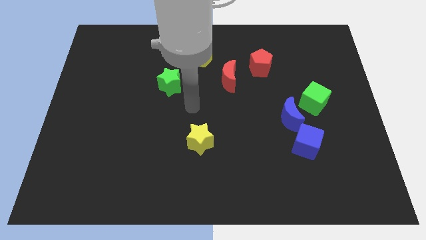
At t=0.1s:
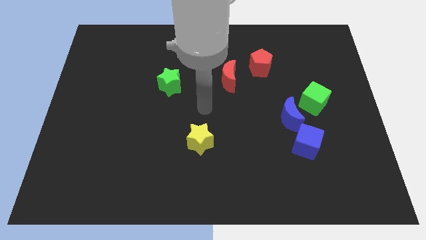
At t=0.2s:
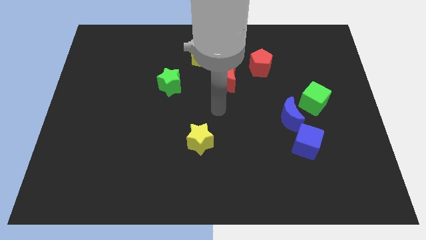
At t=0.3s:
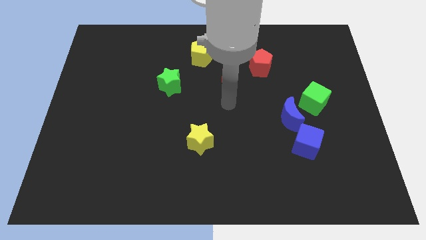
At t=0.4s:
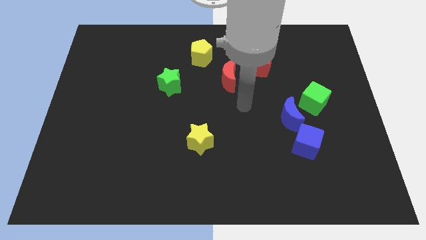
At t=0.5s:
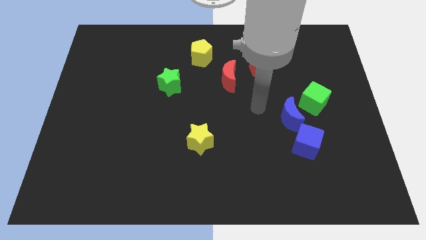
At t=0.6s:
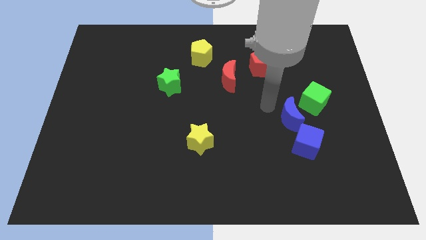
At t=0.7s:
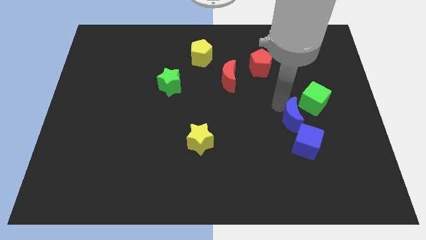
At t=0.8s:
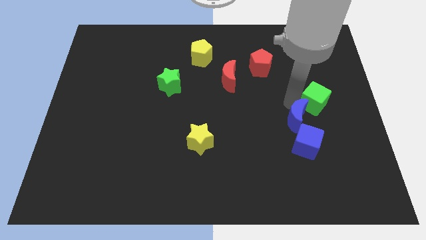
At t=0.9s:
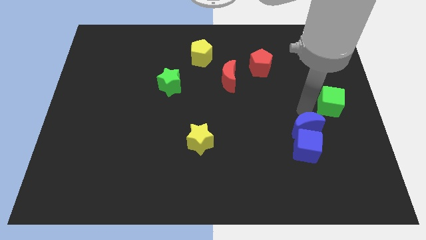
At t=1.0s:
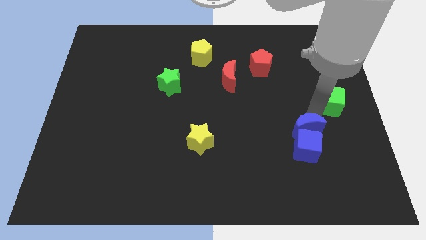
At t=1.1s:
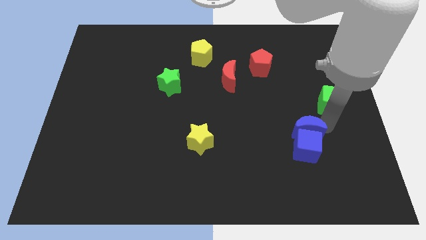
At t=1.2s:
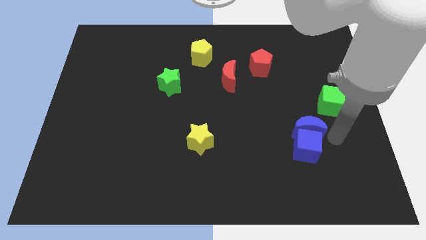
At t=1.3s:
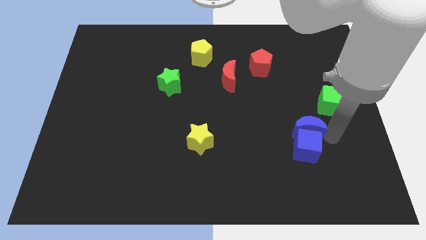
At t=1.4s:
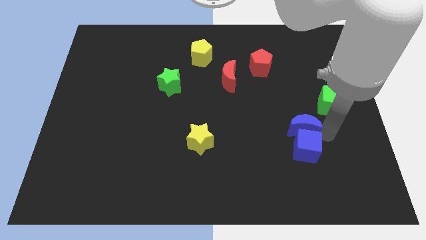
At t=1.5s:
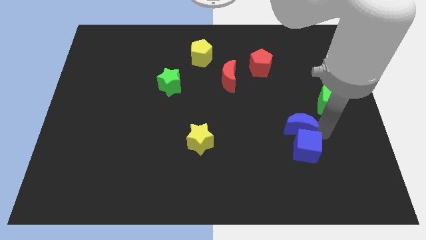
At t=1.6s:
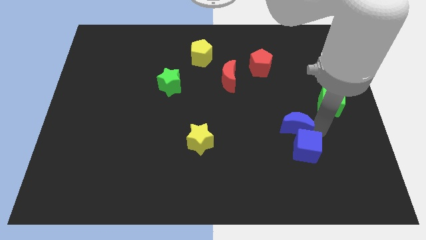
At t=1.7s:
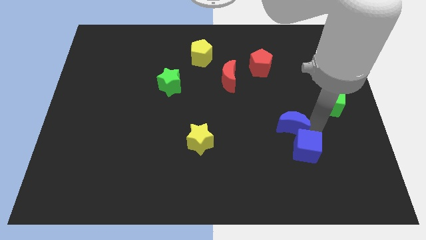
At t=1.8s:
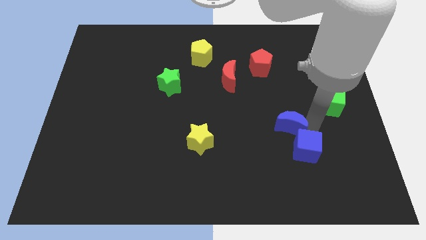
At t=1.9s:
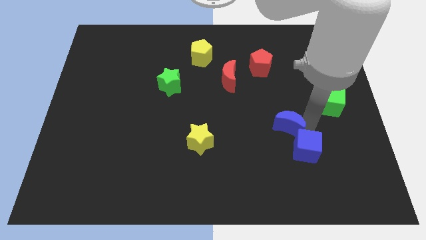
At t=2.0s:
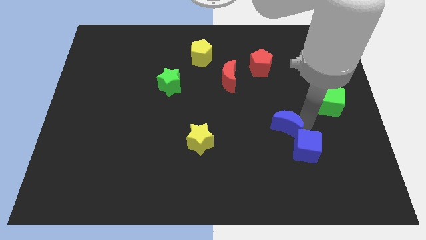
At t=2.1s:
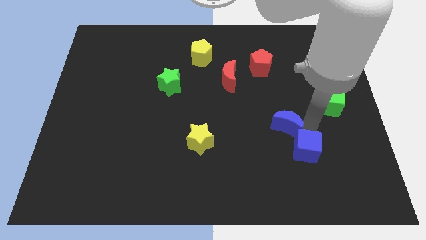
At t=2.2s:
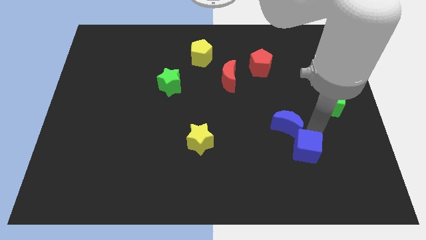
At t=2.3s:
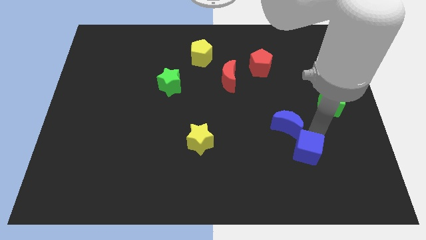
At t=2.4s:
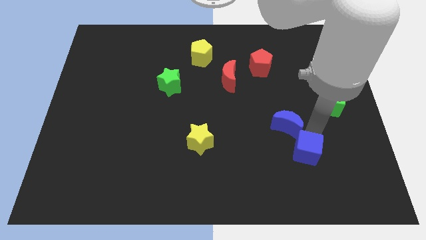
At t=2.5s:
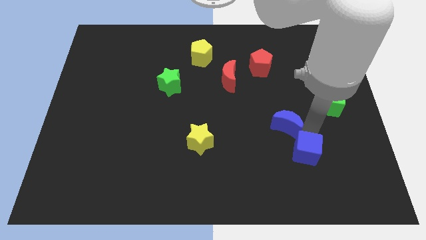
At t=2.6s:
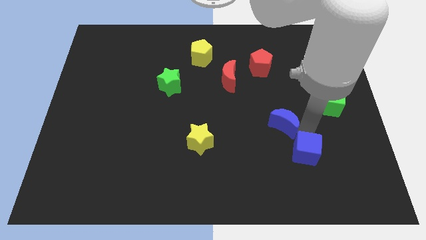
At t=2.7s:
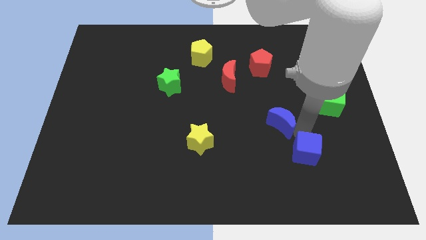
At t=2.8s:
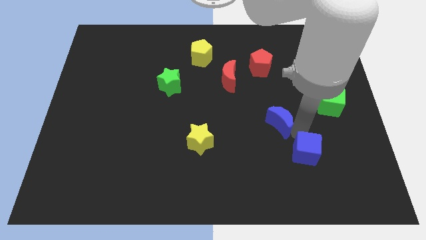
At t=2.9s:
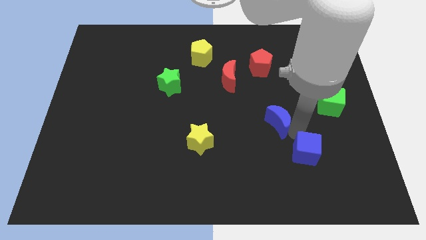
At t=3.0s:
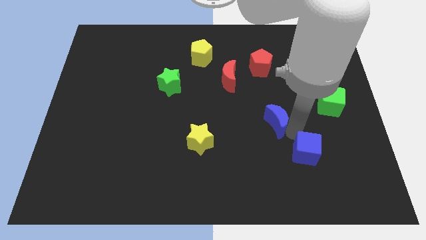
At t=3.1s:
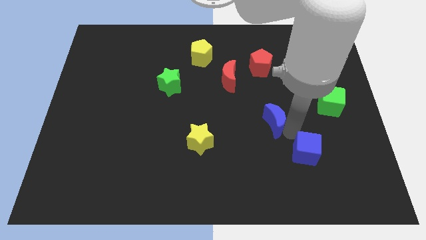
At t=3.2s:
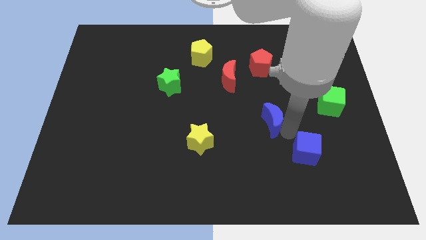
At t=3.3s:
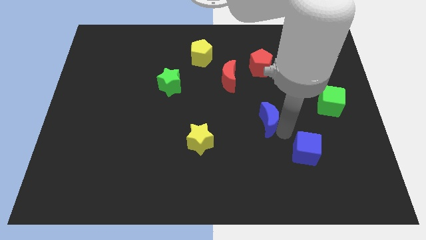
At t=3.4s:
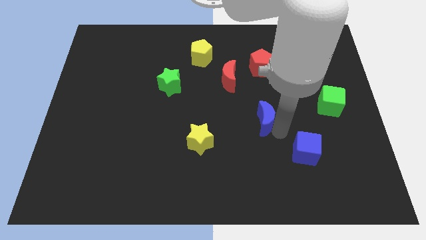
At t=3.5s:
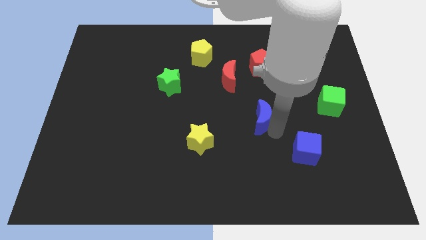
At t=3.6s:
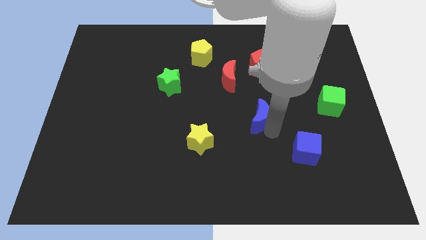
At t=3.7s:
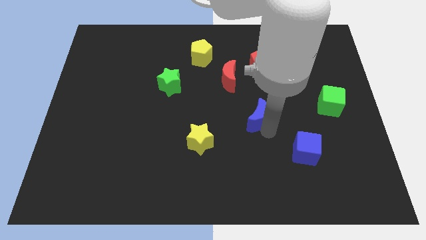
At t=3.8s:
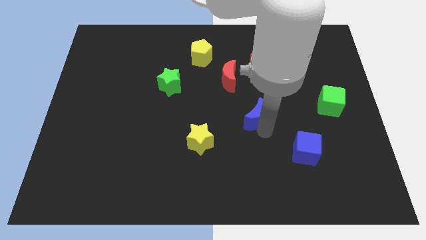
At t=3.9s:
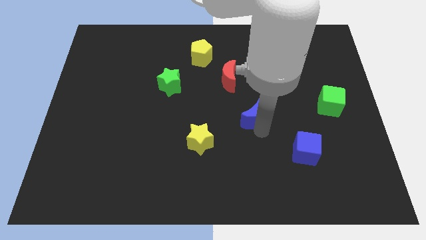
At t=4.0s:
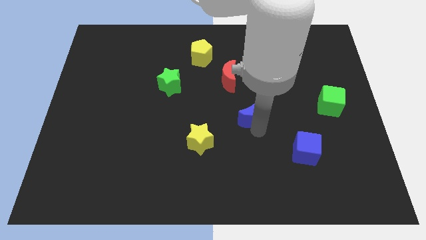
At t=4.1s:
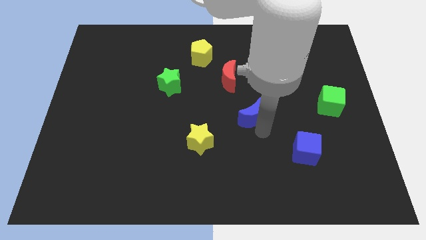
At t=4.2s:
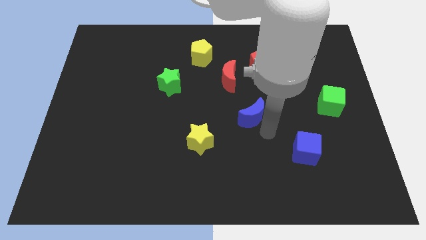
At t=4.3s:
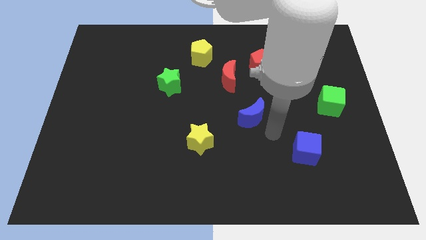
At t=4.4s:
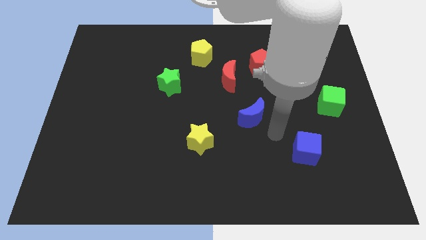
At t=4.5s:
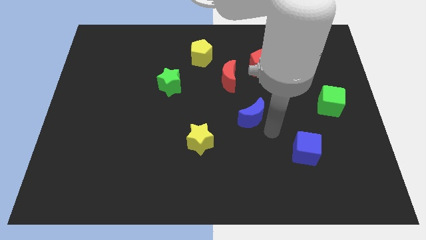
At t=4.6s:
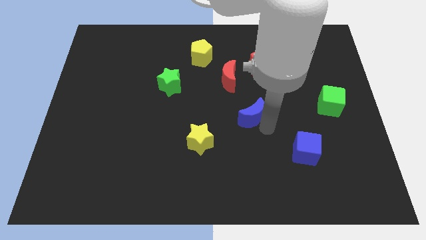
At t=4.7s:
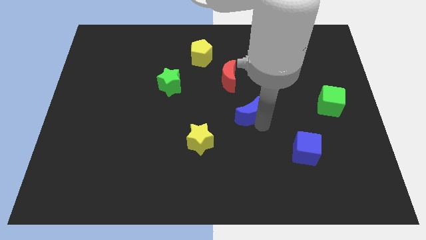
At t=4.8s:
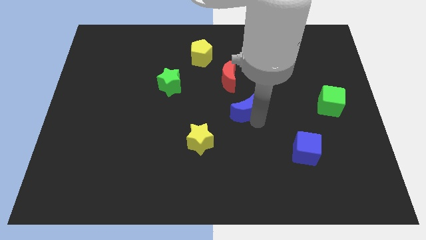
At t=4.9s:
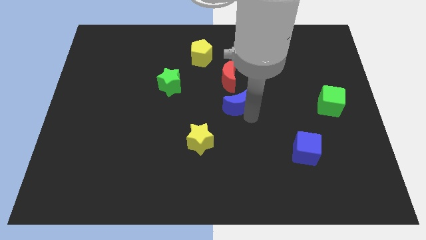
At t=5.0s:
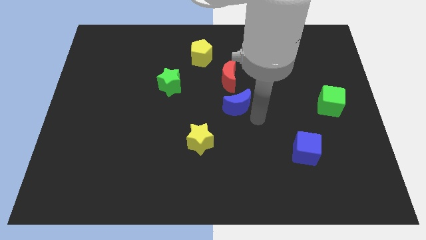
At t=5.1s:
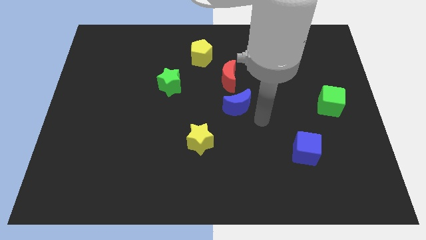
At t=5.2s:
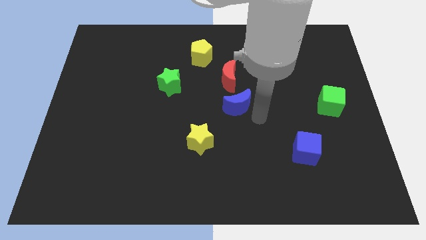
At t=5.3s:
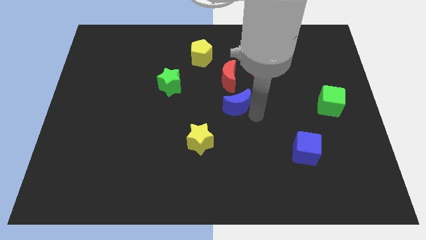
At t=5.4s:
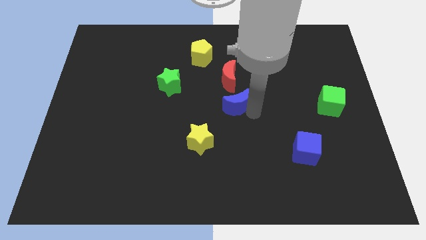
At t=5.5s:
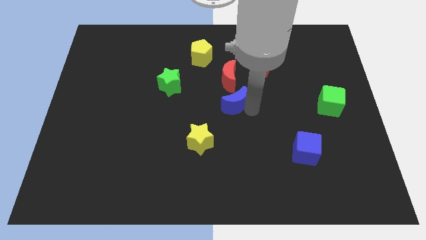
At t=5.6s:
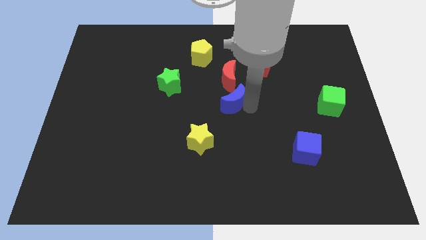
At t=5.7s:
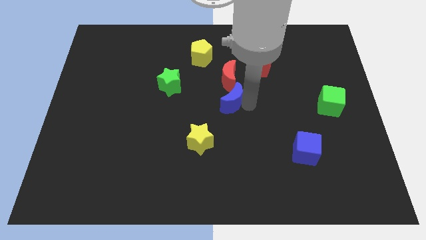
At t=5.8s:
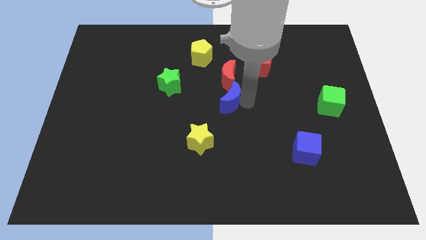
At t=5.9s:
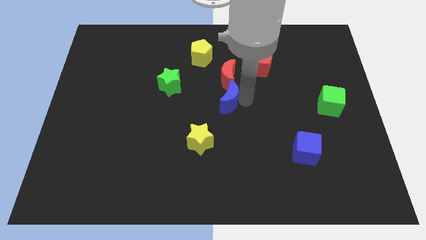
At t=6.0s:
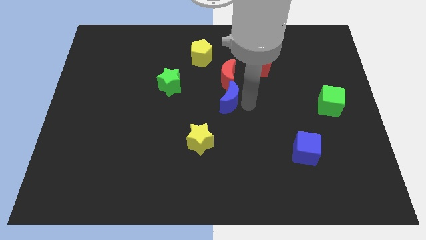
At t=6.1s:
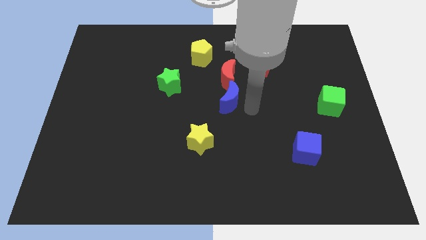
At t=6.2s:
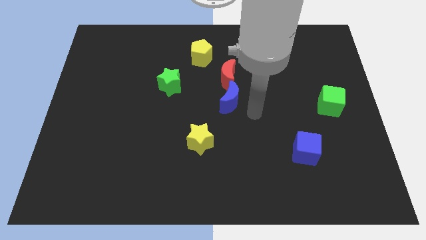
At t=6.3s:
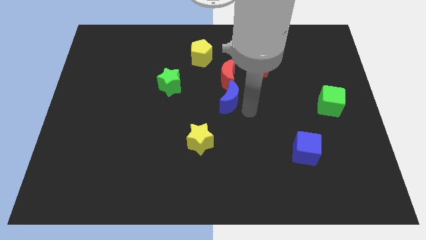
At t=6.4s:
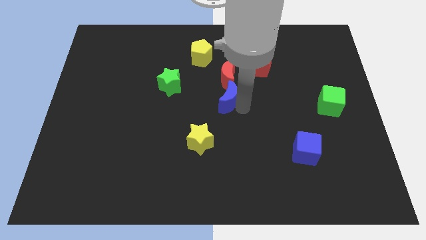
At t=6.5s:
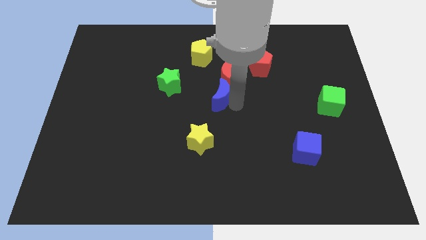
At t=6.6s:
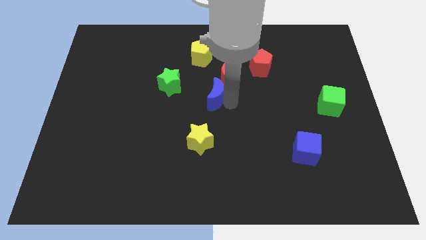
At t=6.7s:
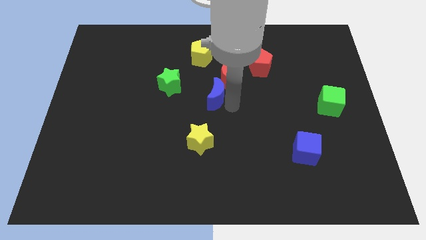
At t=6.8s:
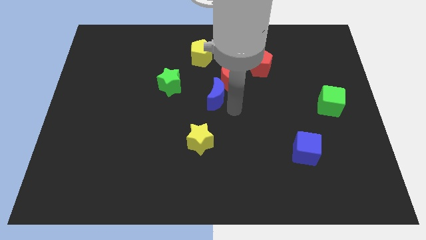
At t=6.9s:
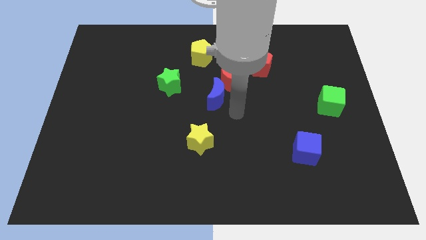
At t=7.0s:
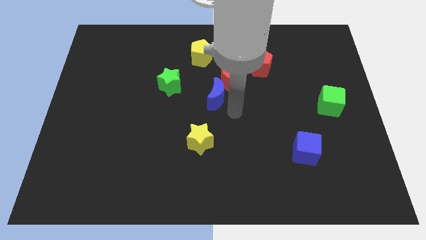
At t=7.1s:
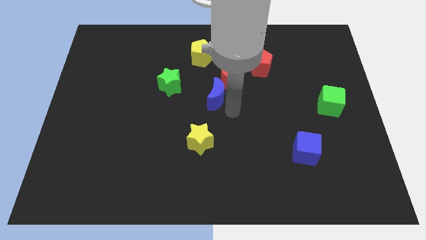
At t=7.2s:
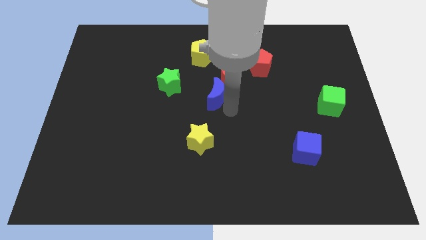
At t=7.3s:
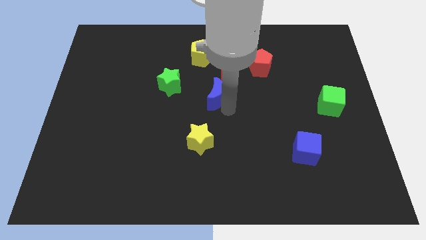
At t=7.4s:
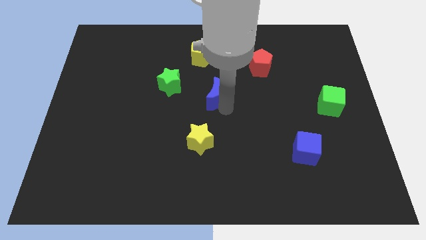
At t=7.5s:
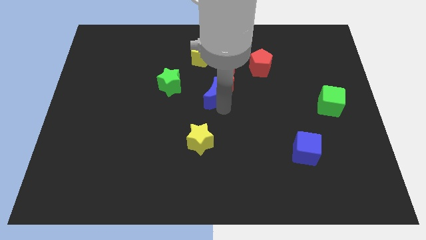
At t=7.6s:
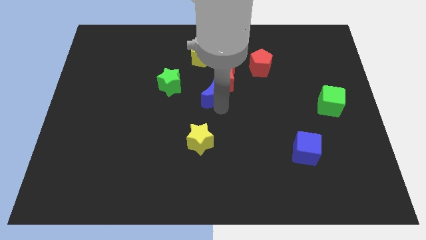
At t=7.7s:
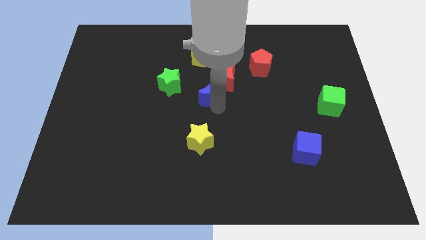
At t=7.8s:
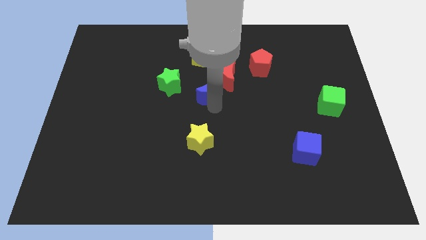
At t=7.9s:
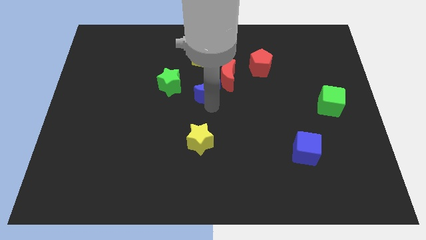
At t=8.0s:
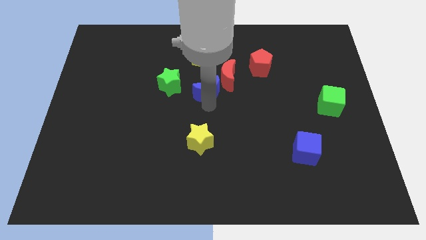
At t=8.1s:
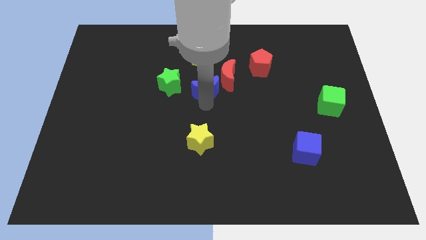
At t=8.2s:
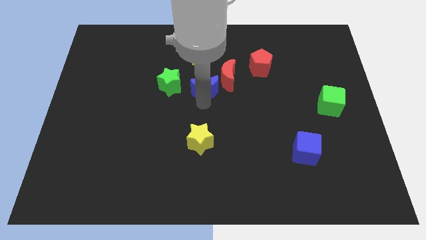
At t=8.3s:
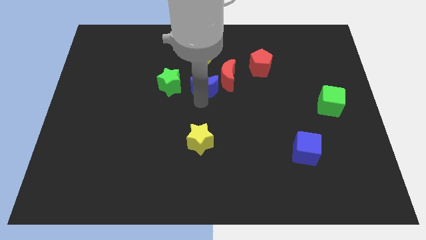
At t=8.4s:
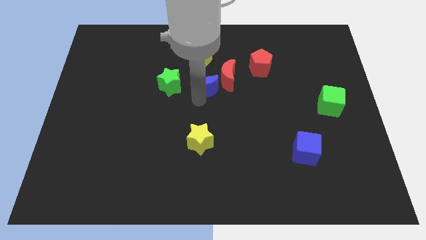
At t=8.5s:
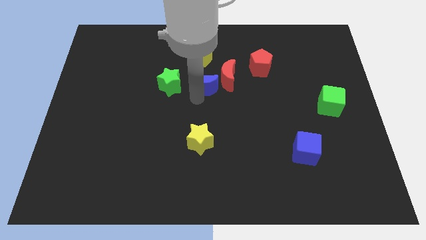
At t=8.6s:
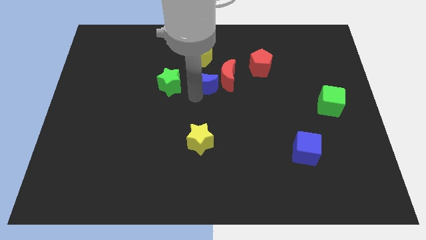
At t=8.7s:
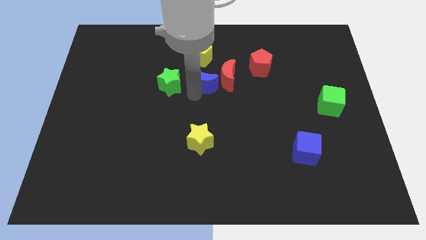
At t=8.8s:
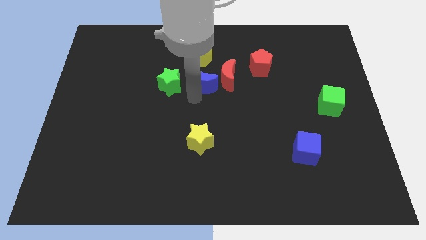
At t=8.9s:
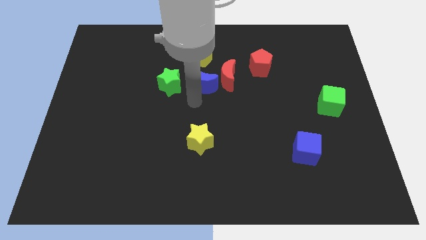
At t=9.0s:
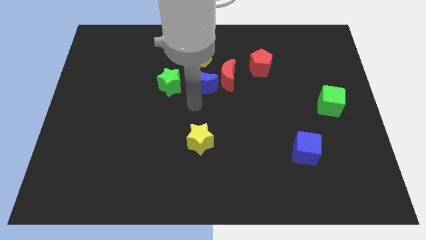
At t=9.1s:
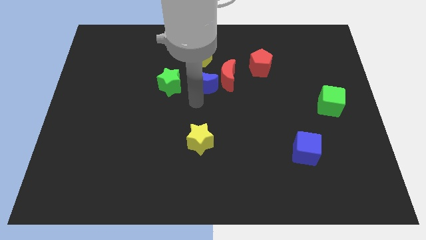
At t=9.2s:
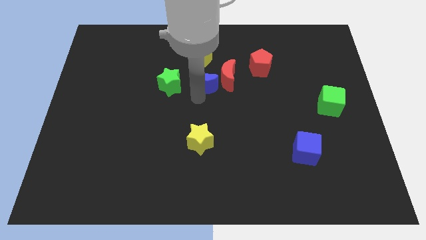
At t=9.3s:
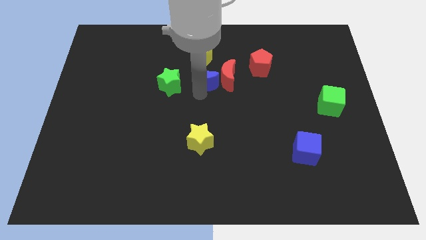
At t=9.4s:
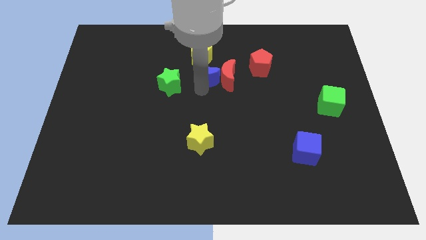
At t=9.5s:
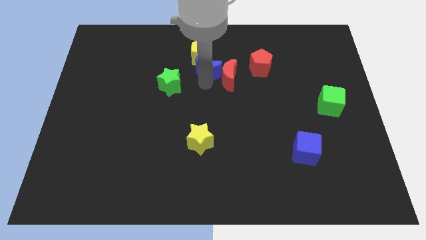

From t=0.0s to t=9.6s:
push the blue moon towards the yellow pentagon
